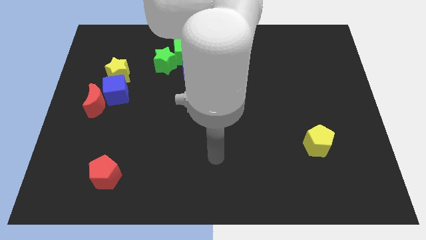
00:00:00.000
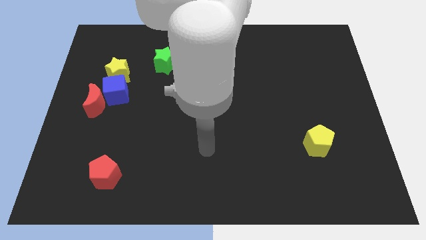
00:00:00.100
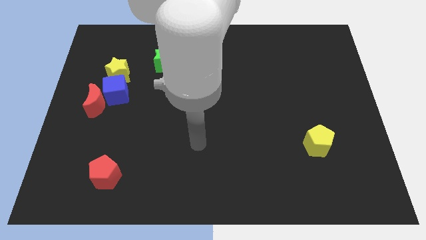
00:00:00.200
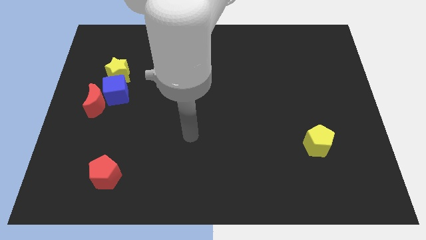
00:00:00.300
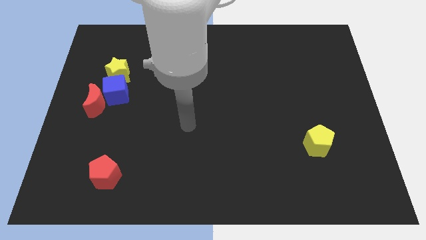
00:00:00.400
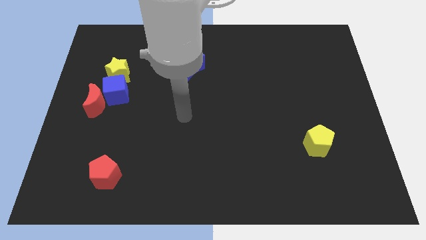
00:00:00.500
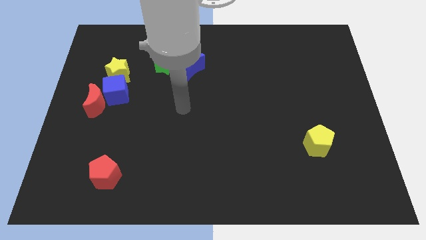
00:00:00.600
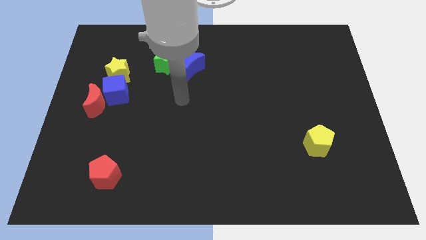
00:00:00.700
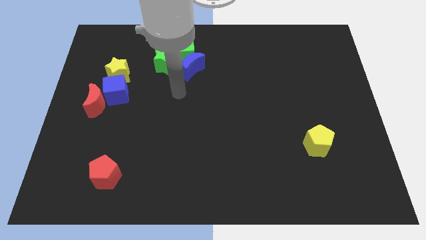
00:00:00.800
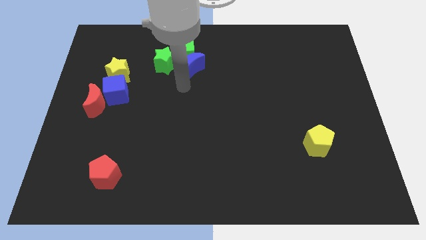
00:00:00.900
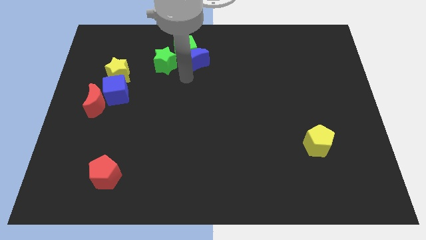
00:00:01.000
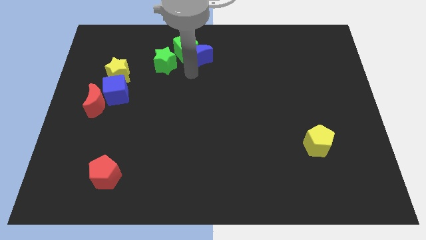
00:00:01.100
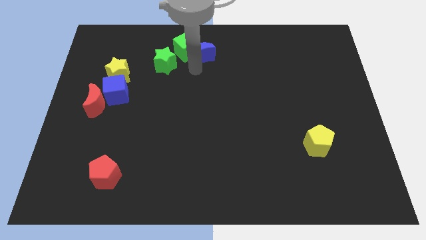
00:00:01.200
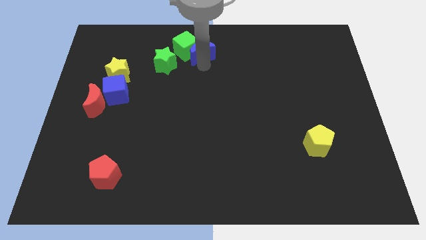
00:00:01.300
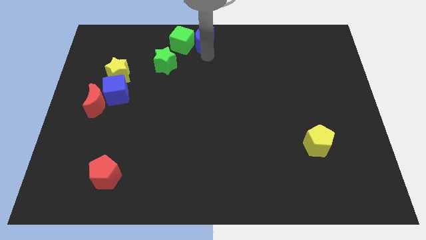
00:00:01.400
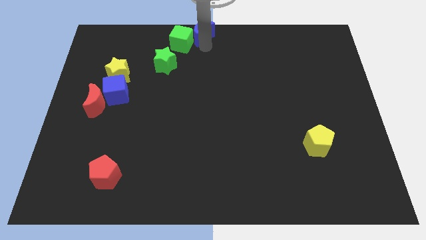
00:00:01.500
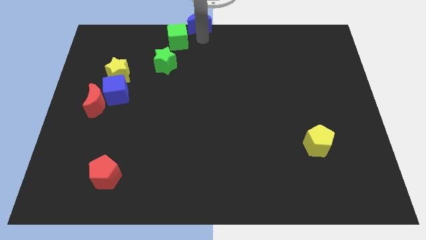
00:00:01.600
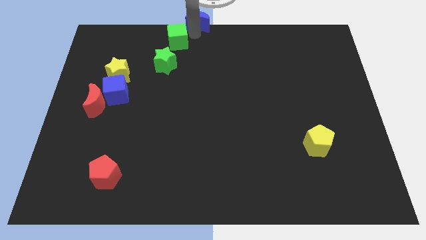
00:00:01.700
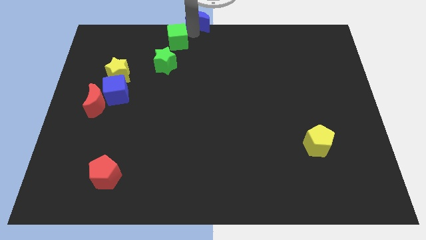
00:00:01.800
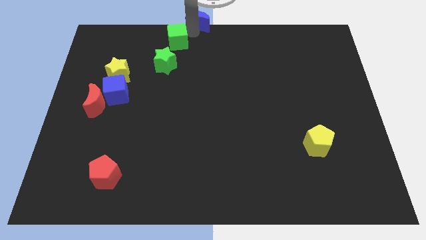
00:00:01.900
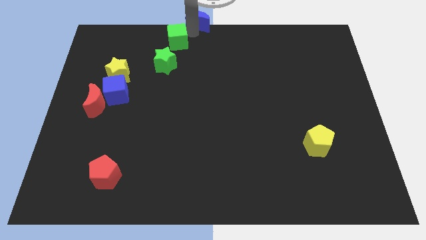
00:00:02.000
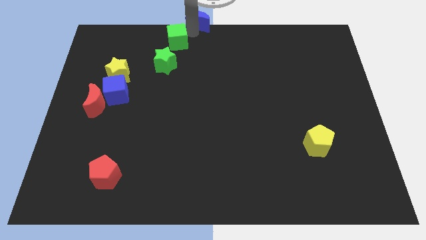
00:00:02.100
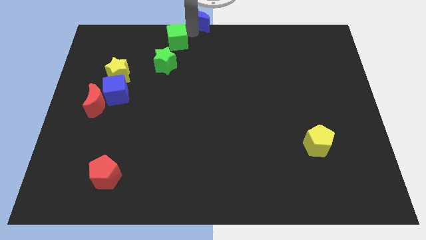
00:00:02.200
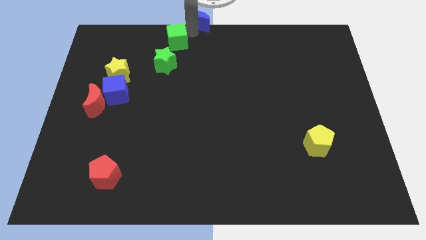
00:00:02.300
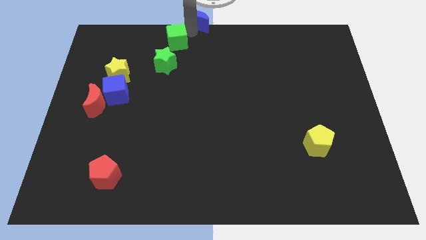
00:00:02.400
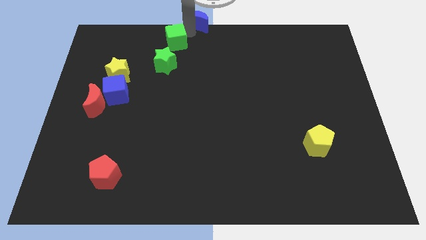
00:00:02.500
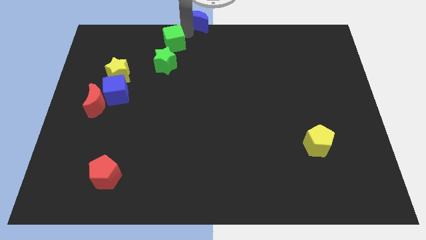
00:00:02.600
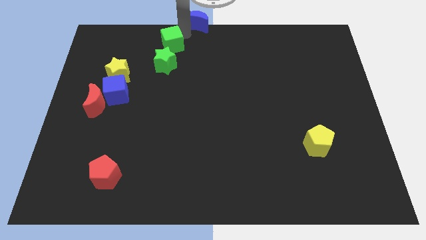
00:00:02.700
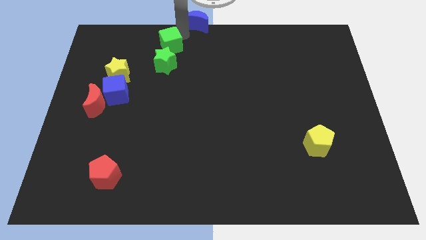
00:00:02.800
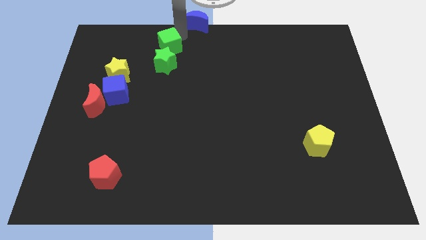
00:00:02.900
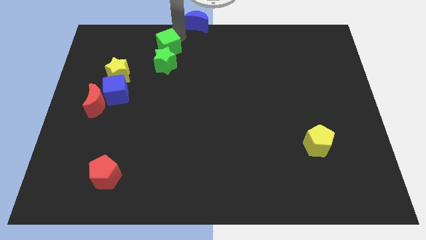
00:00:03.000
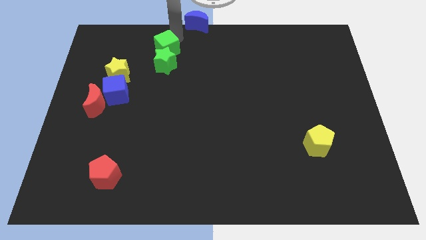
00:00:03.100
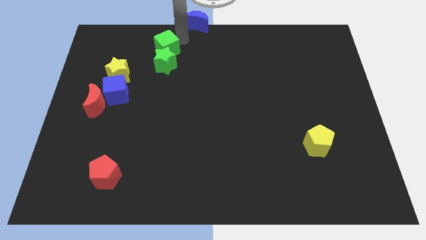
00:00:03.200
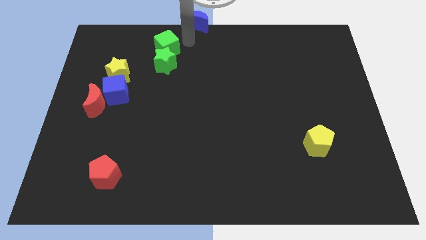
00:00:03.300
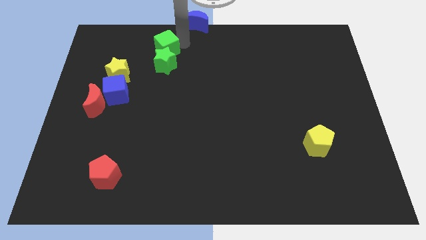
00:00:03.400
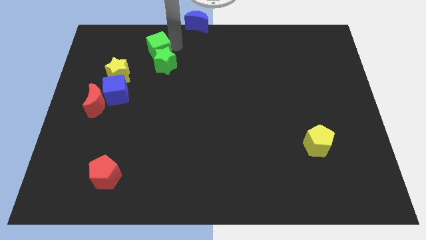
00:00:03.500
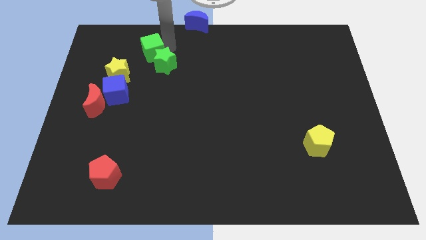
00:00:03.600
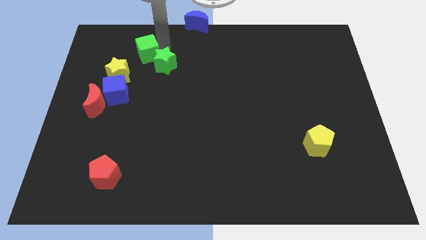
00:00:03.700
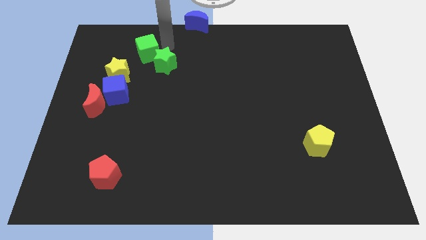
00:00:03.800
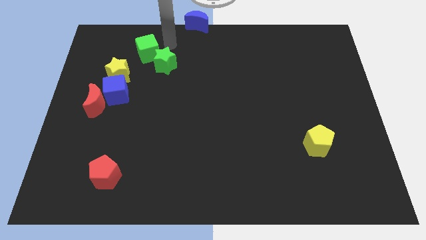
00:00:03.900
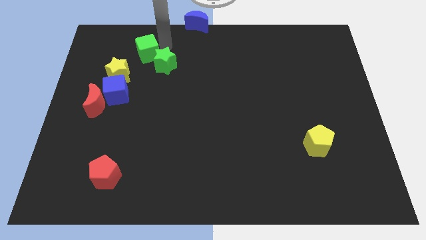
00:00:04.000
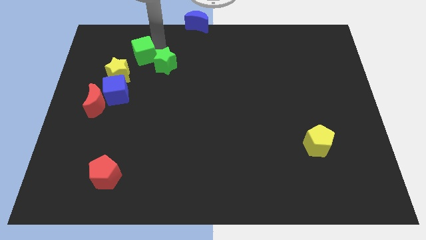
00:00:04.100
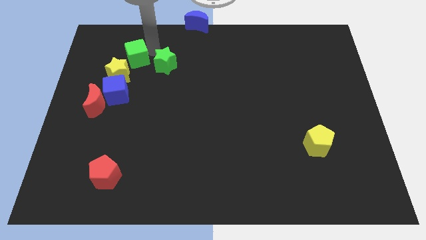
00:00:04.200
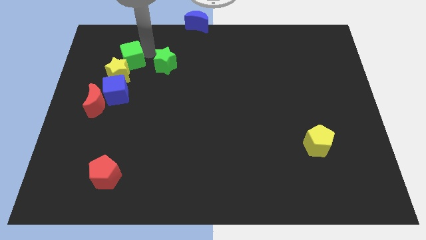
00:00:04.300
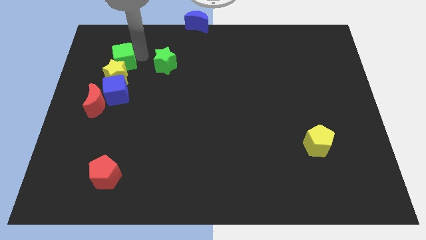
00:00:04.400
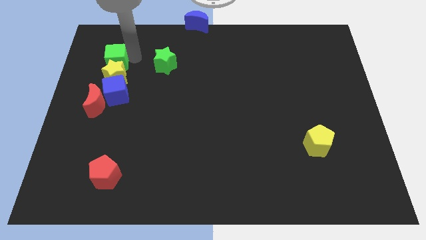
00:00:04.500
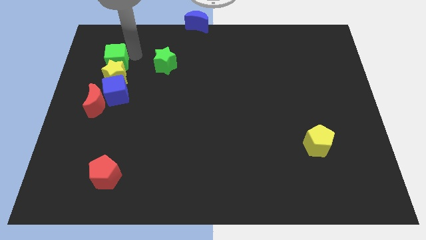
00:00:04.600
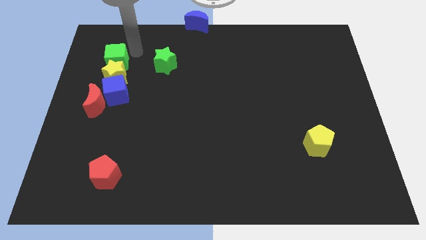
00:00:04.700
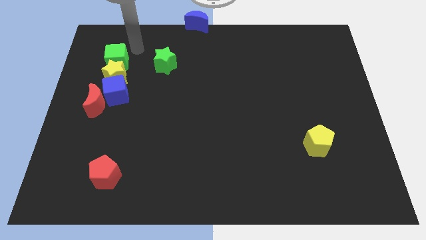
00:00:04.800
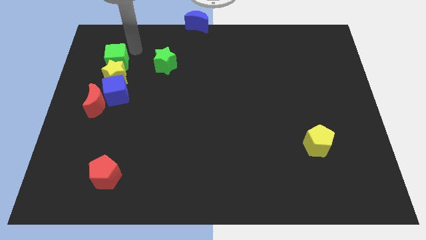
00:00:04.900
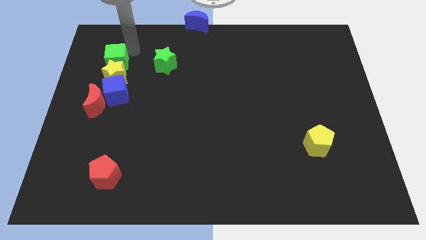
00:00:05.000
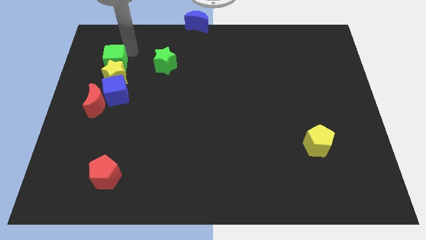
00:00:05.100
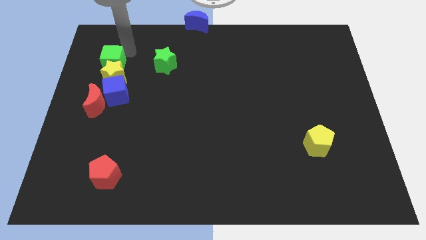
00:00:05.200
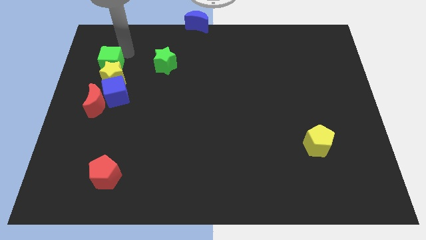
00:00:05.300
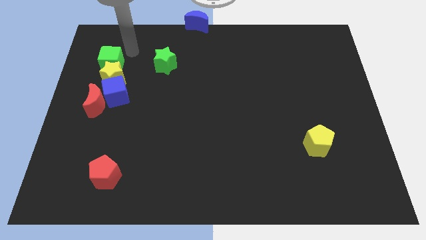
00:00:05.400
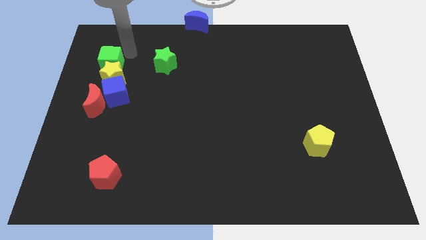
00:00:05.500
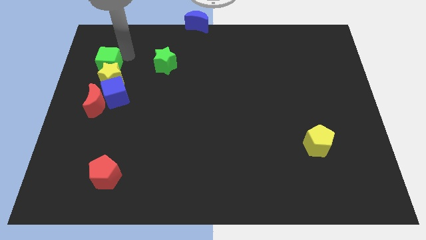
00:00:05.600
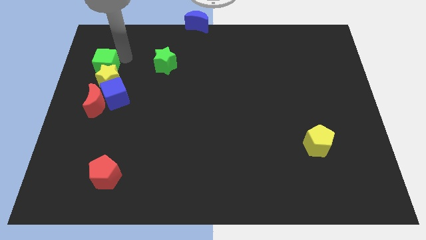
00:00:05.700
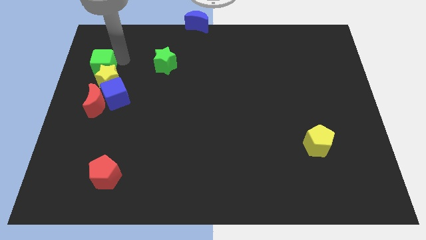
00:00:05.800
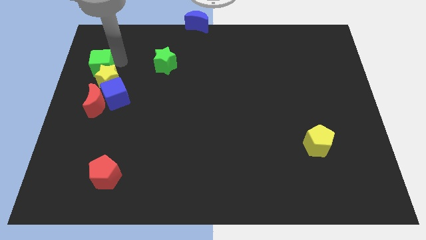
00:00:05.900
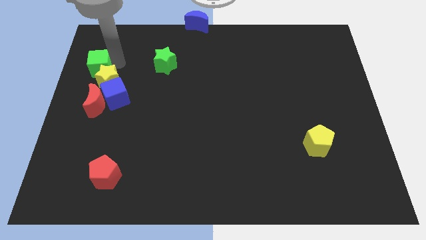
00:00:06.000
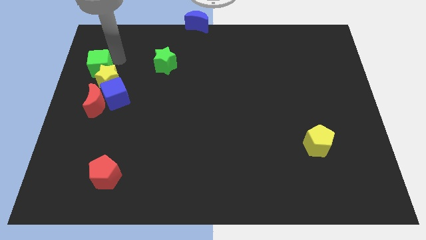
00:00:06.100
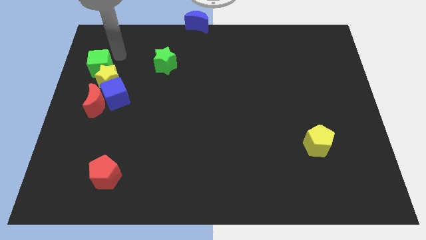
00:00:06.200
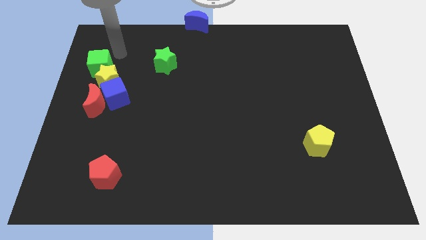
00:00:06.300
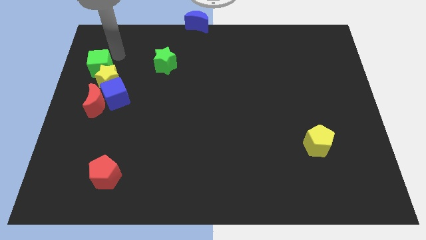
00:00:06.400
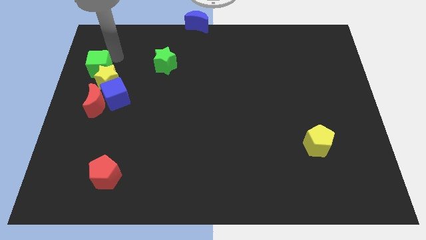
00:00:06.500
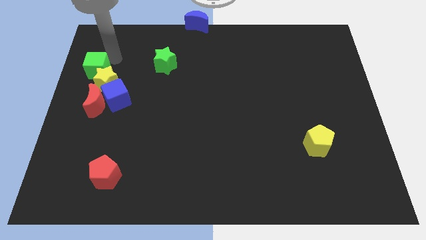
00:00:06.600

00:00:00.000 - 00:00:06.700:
move the green cube to the center left
